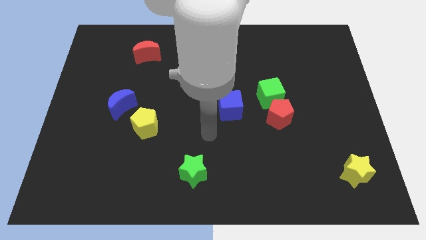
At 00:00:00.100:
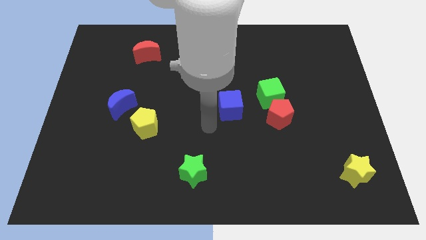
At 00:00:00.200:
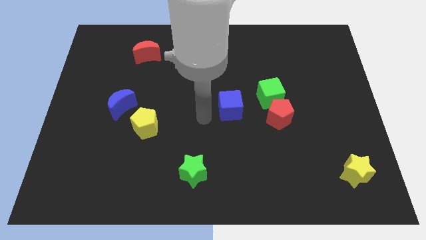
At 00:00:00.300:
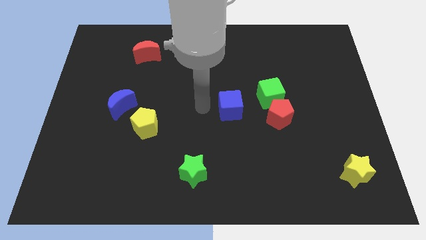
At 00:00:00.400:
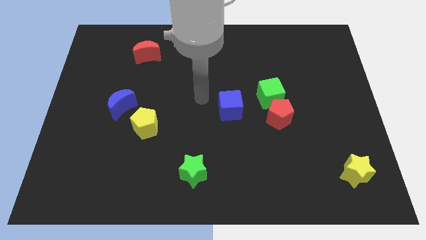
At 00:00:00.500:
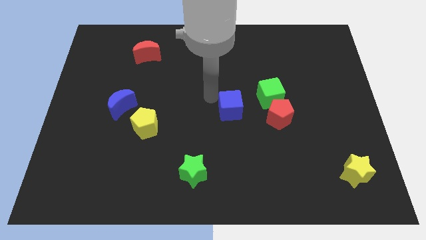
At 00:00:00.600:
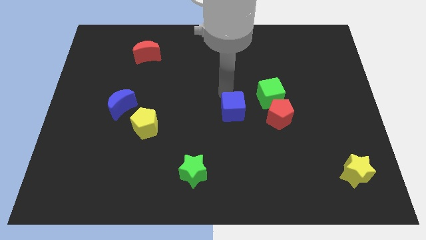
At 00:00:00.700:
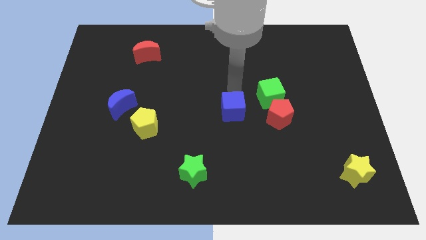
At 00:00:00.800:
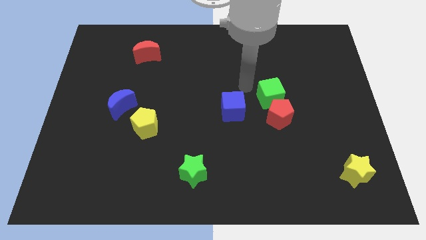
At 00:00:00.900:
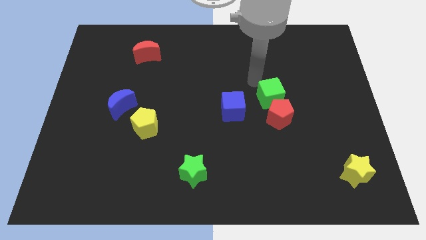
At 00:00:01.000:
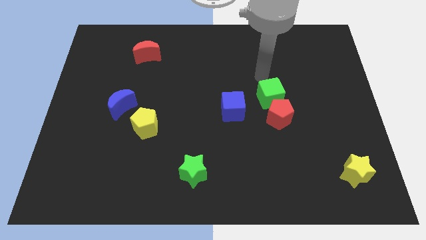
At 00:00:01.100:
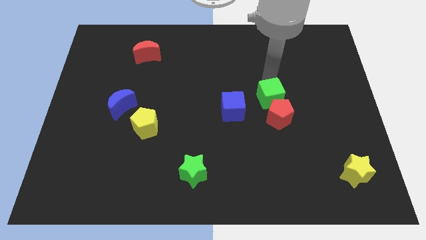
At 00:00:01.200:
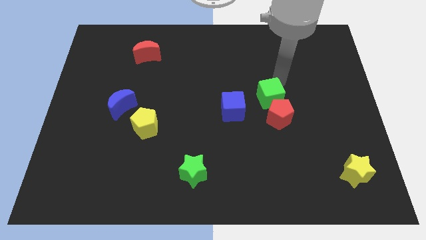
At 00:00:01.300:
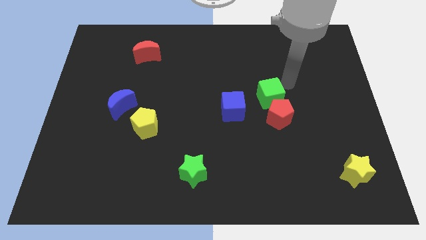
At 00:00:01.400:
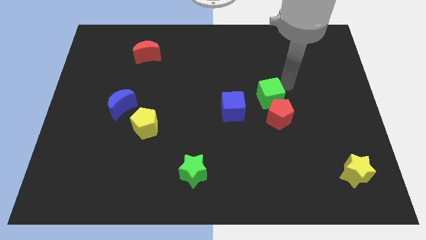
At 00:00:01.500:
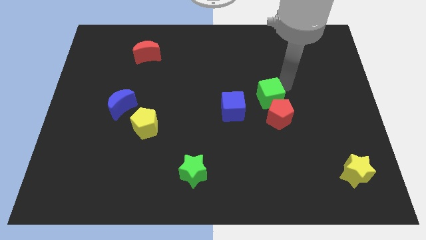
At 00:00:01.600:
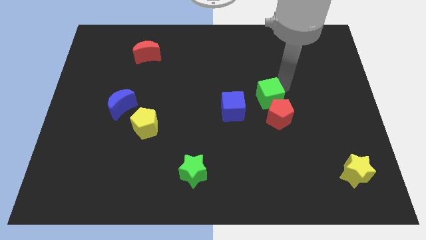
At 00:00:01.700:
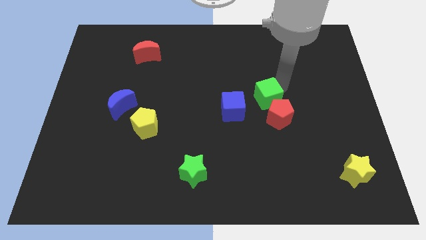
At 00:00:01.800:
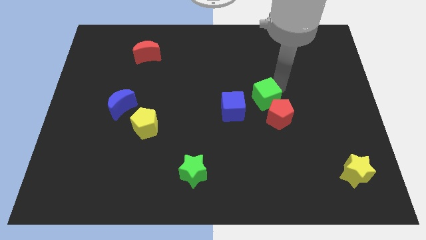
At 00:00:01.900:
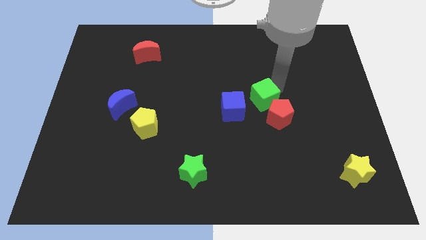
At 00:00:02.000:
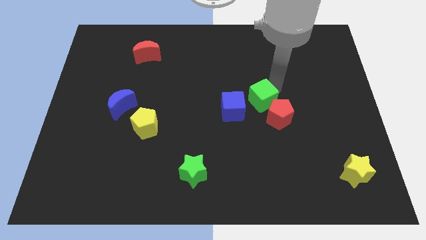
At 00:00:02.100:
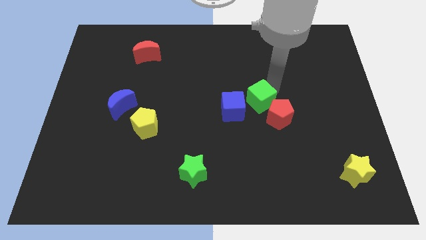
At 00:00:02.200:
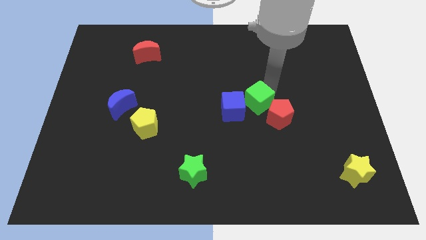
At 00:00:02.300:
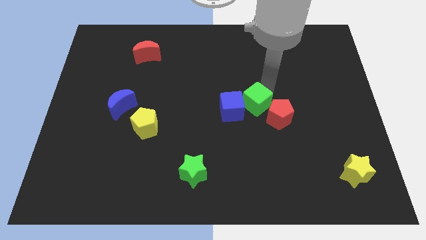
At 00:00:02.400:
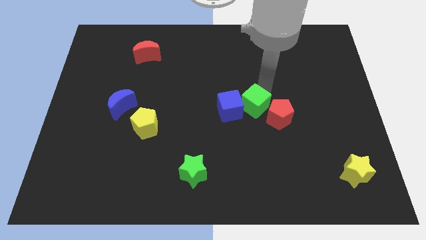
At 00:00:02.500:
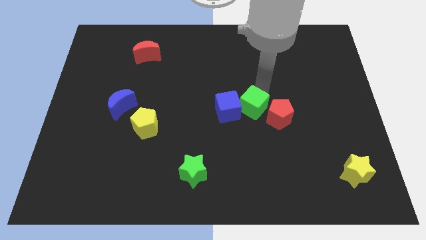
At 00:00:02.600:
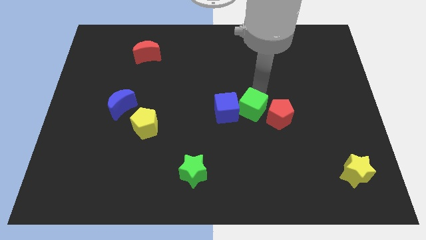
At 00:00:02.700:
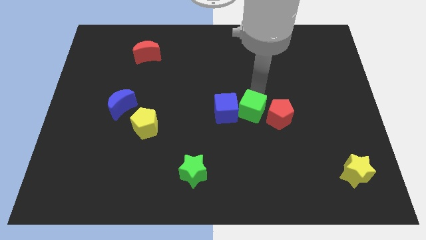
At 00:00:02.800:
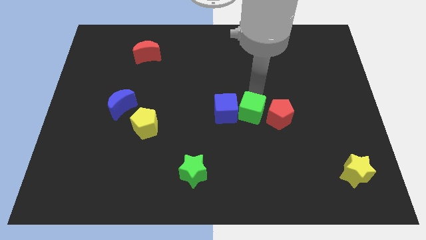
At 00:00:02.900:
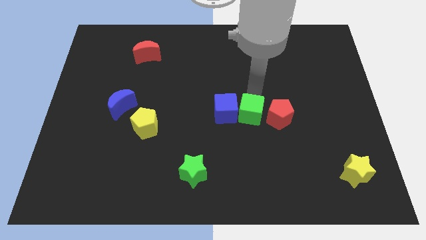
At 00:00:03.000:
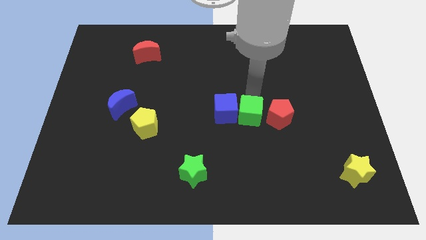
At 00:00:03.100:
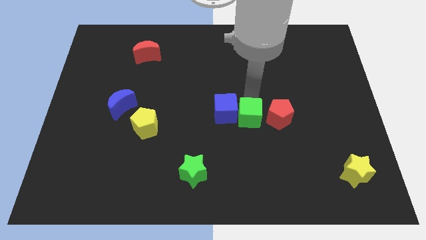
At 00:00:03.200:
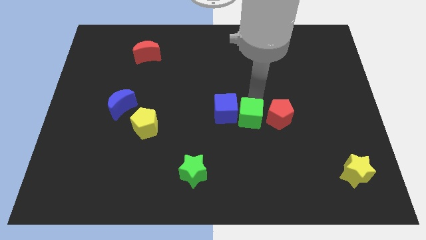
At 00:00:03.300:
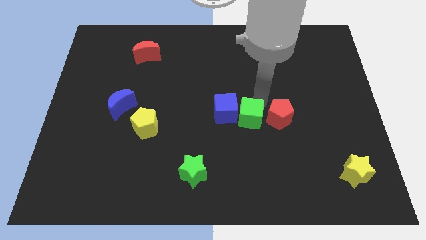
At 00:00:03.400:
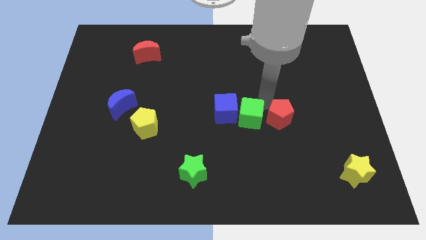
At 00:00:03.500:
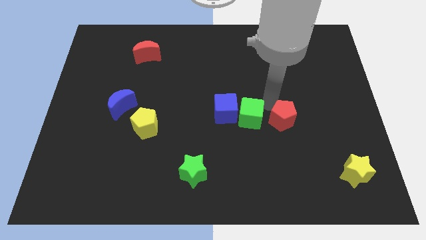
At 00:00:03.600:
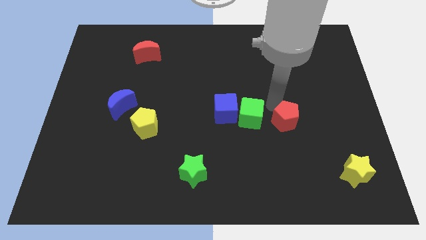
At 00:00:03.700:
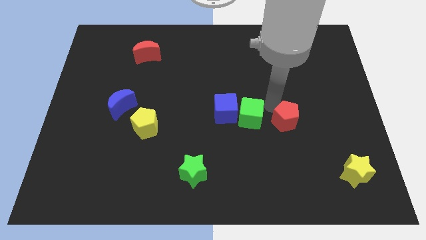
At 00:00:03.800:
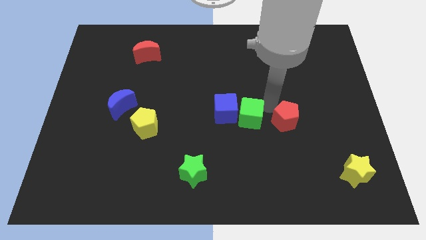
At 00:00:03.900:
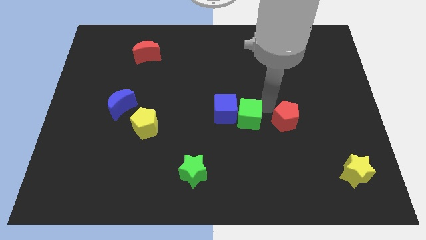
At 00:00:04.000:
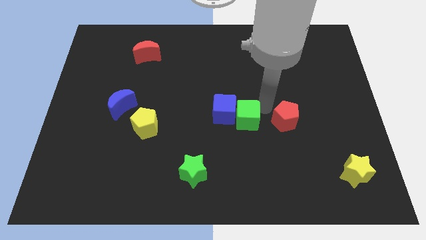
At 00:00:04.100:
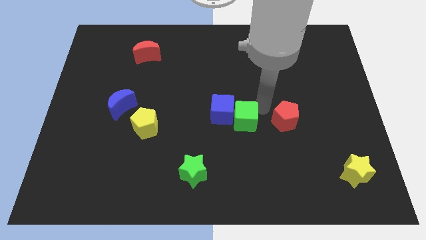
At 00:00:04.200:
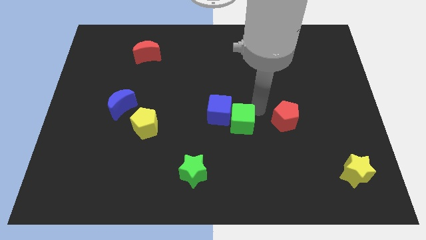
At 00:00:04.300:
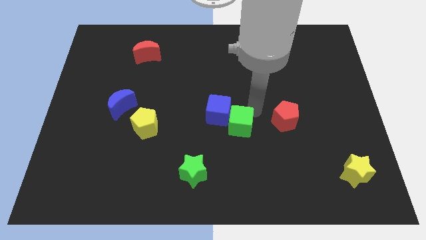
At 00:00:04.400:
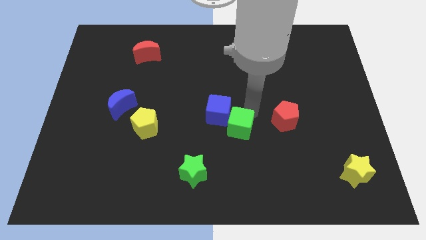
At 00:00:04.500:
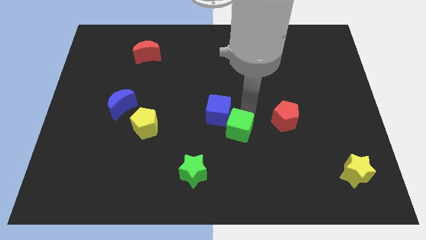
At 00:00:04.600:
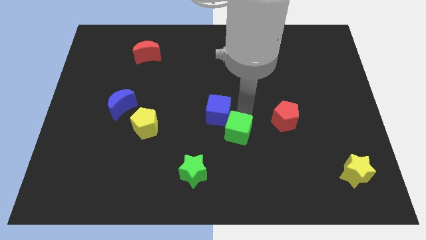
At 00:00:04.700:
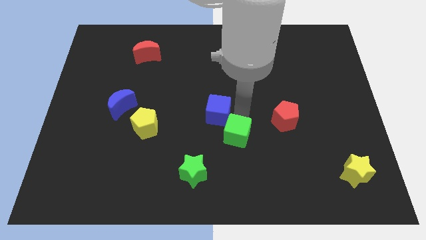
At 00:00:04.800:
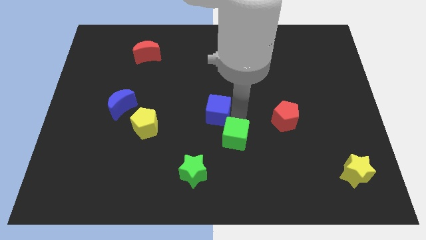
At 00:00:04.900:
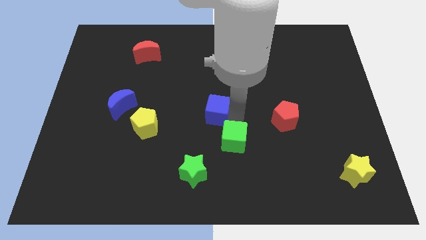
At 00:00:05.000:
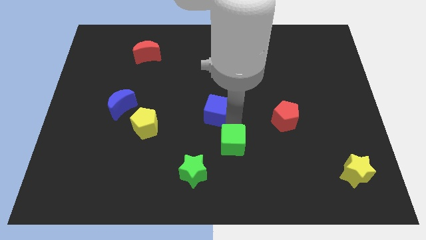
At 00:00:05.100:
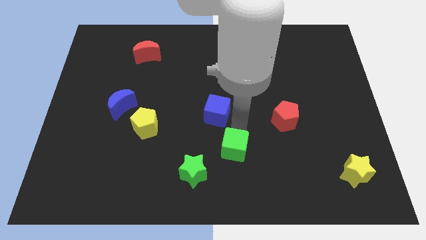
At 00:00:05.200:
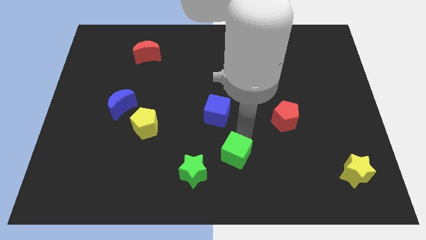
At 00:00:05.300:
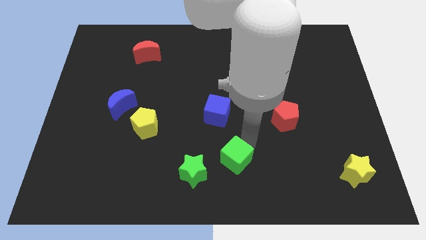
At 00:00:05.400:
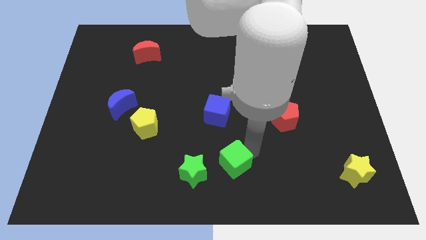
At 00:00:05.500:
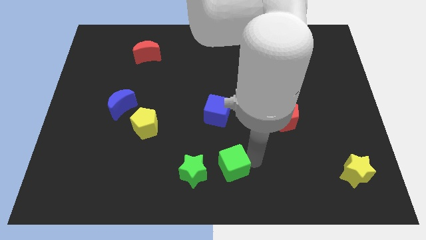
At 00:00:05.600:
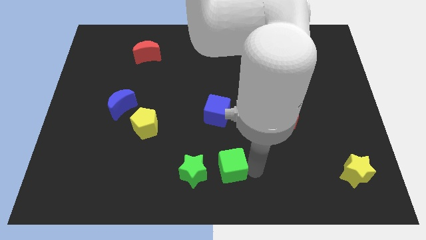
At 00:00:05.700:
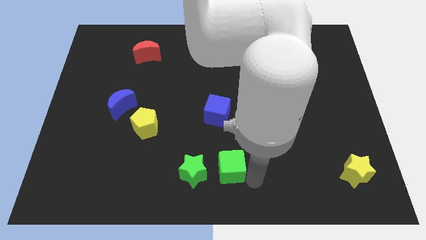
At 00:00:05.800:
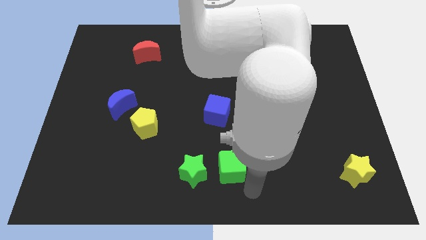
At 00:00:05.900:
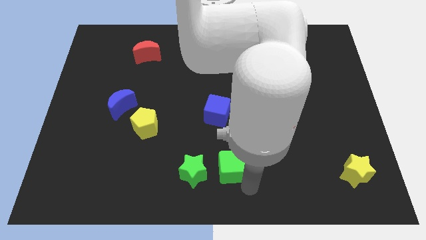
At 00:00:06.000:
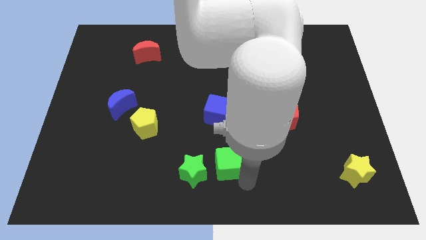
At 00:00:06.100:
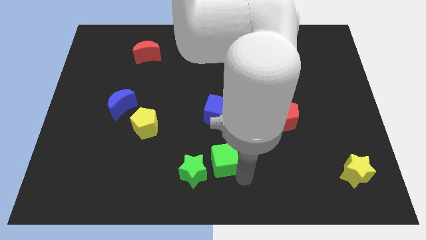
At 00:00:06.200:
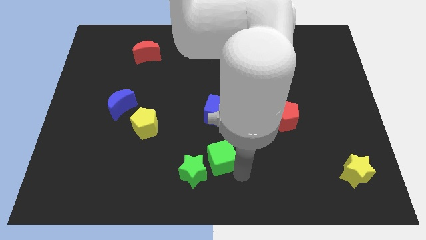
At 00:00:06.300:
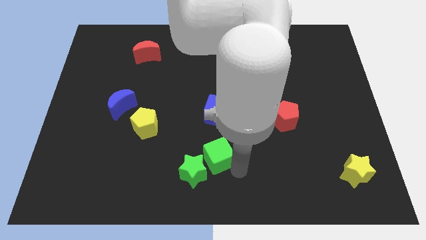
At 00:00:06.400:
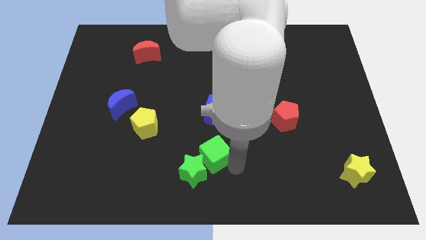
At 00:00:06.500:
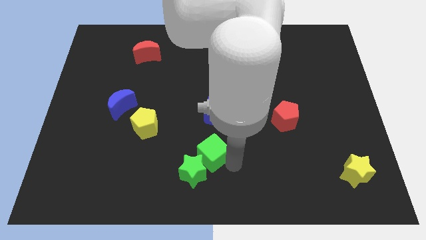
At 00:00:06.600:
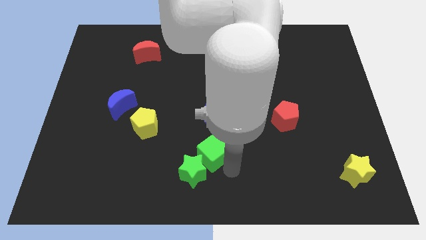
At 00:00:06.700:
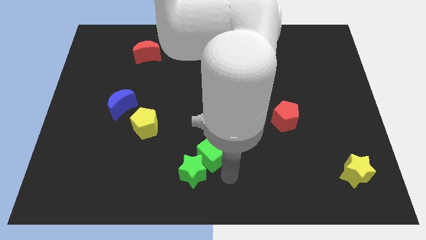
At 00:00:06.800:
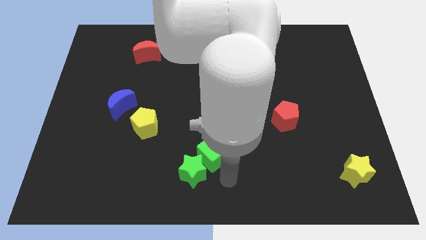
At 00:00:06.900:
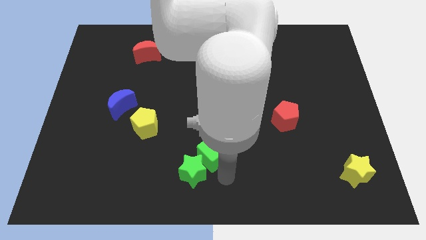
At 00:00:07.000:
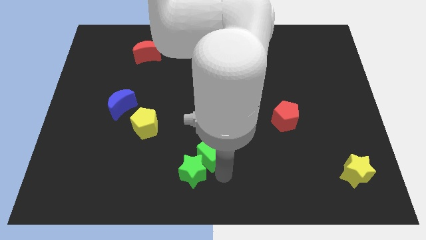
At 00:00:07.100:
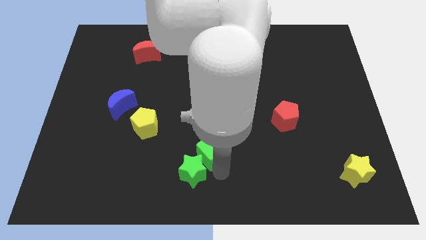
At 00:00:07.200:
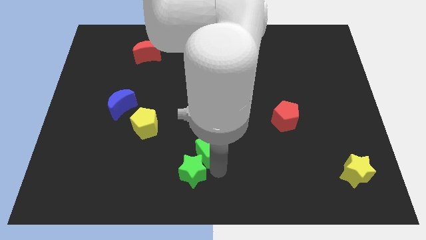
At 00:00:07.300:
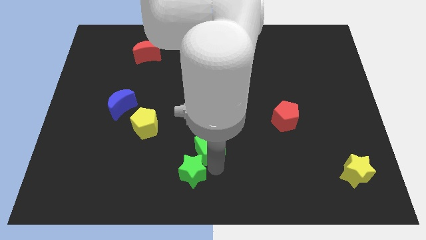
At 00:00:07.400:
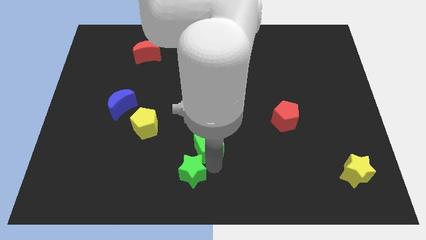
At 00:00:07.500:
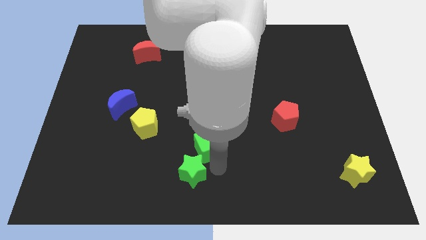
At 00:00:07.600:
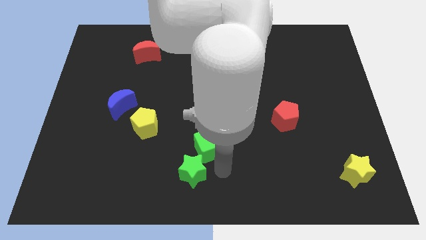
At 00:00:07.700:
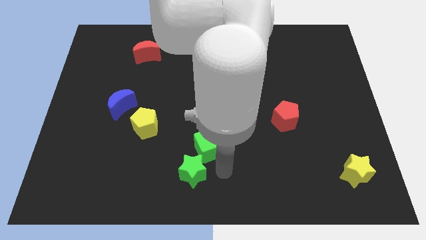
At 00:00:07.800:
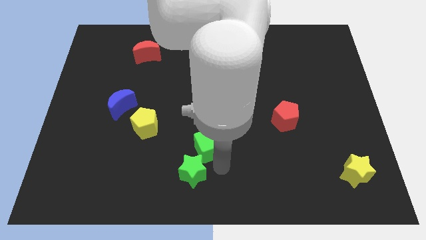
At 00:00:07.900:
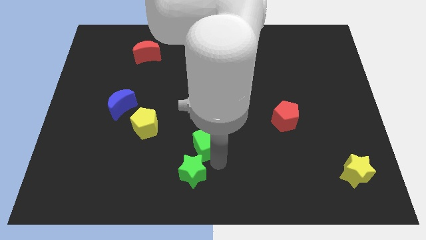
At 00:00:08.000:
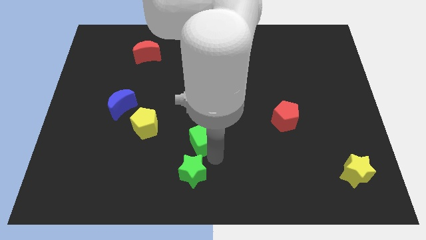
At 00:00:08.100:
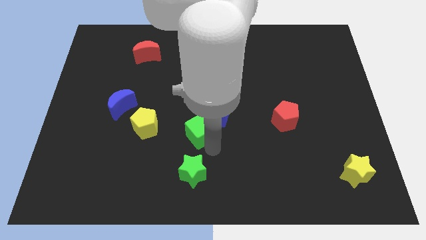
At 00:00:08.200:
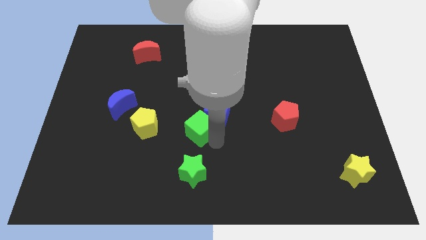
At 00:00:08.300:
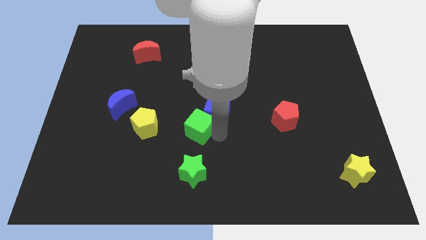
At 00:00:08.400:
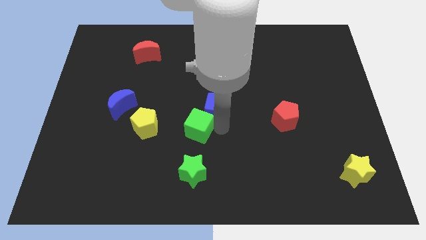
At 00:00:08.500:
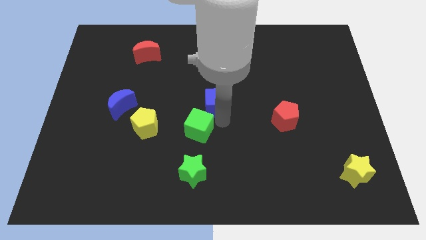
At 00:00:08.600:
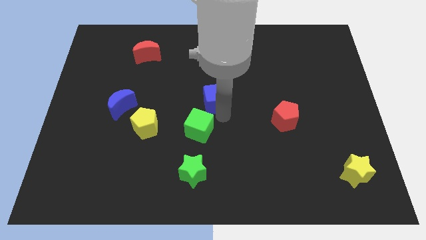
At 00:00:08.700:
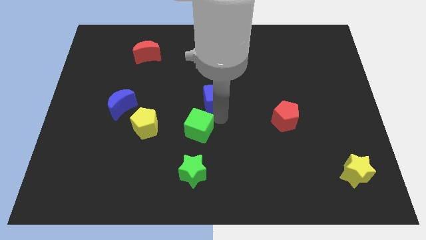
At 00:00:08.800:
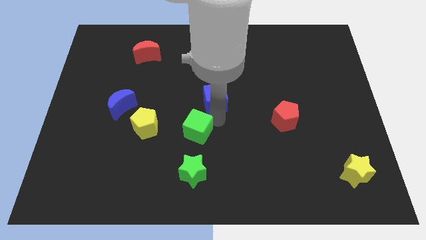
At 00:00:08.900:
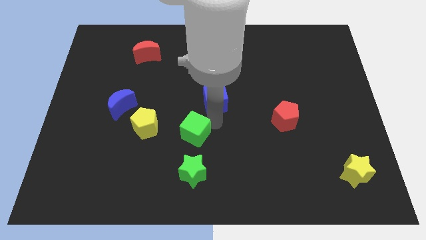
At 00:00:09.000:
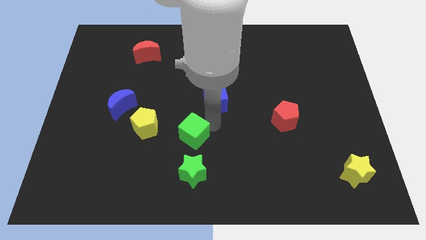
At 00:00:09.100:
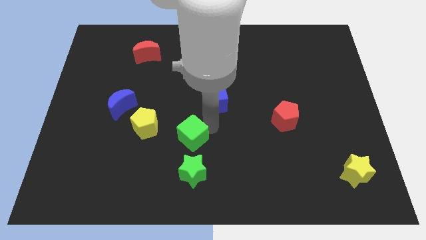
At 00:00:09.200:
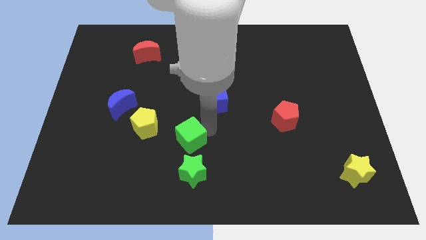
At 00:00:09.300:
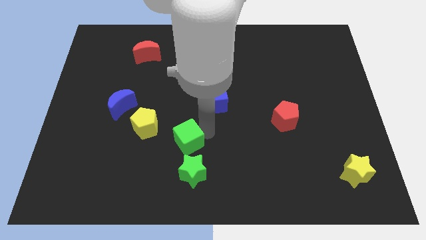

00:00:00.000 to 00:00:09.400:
put the green cube diagonally down and to the right of the yellow pentagon
